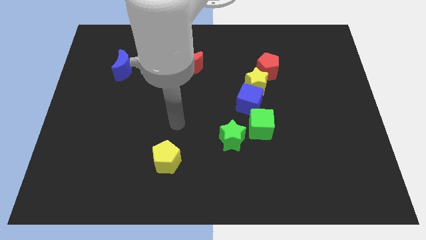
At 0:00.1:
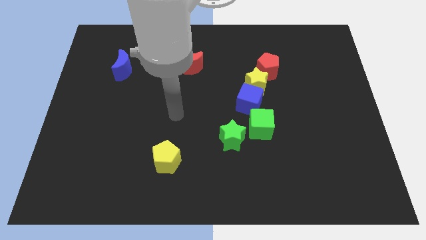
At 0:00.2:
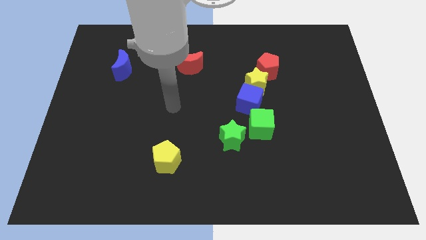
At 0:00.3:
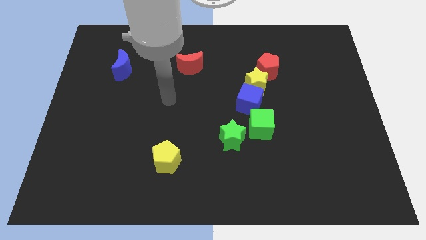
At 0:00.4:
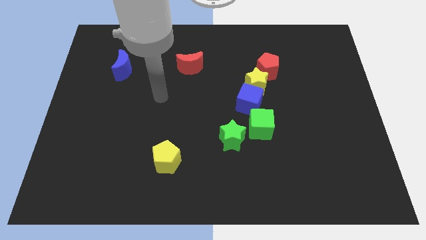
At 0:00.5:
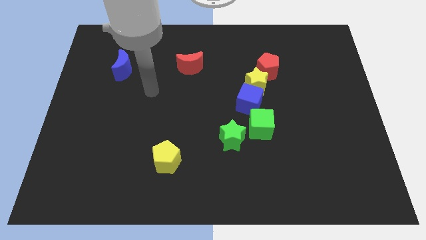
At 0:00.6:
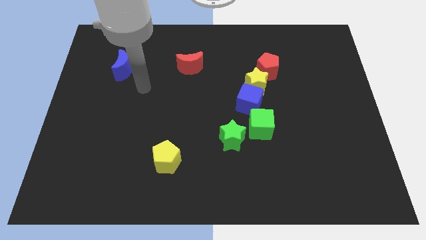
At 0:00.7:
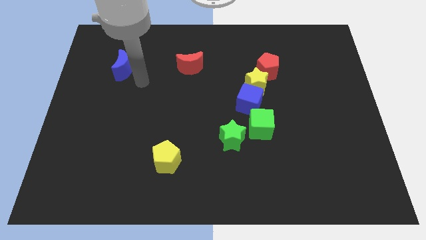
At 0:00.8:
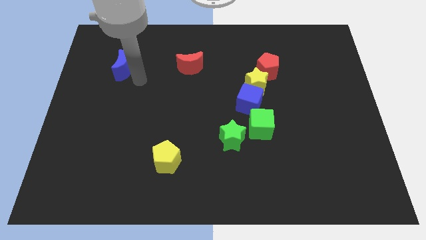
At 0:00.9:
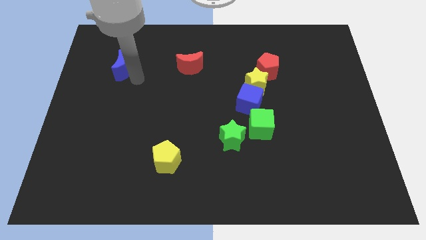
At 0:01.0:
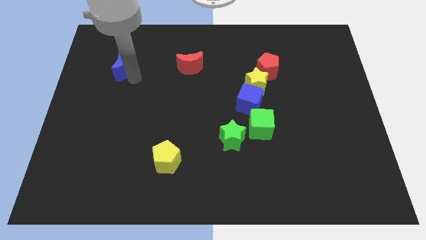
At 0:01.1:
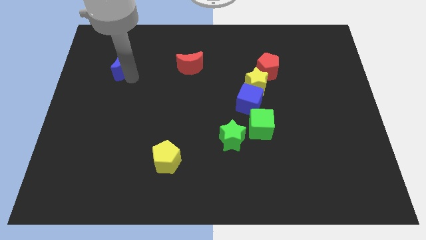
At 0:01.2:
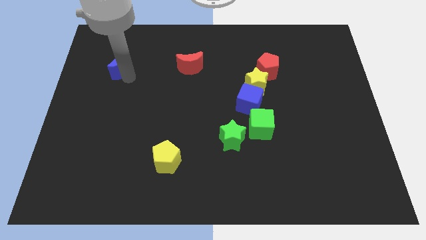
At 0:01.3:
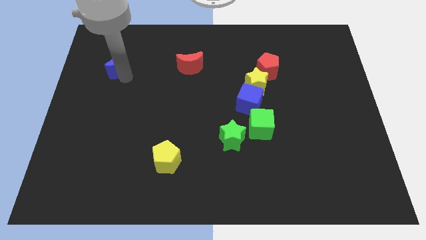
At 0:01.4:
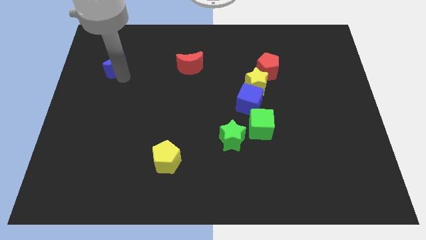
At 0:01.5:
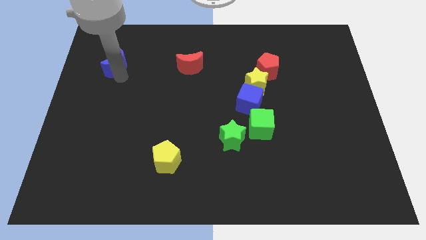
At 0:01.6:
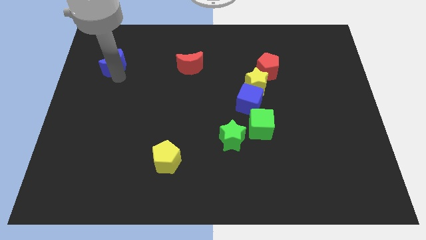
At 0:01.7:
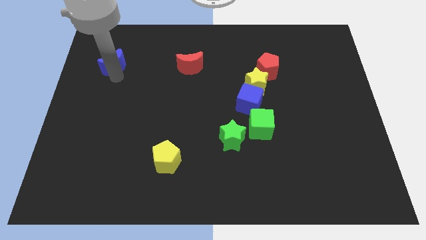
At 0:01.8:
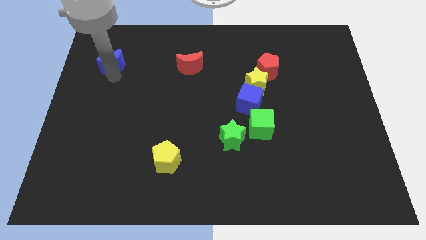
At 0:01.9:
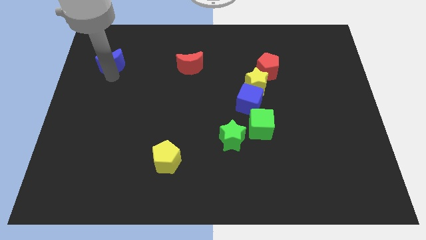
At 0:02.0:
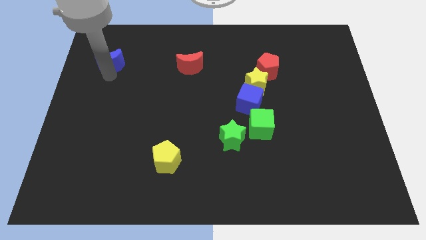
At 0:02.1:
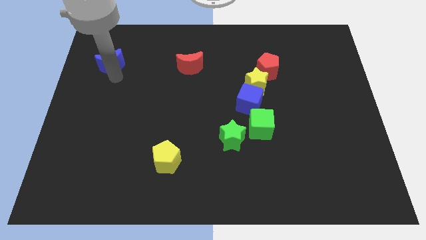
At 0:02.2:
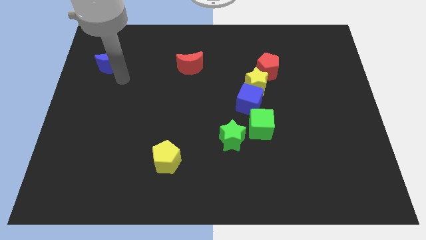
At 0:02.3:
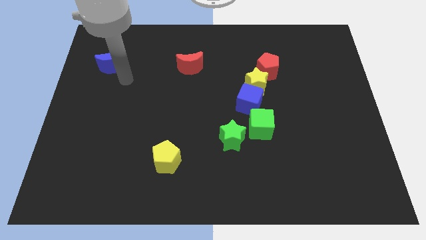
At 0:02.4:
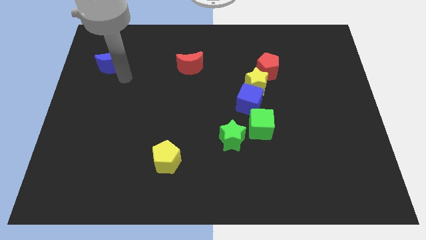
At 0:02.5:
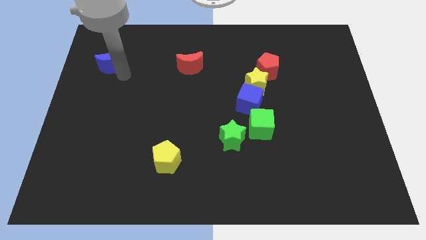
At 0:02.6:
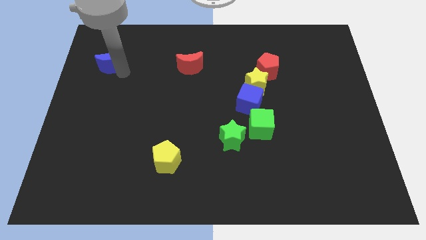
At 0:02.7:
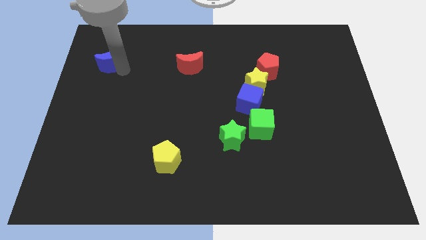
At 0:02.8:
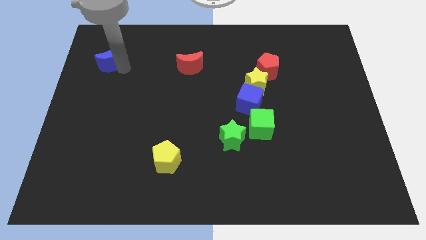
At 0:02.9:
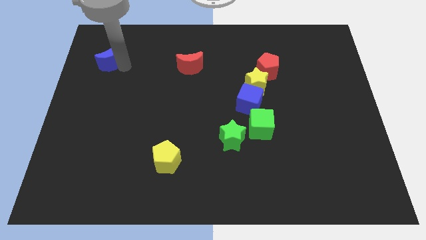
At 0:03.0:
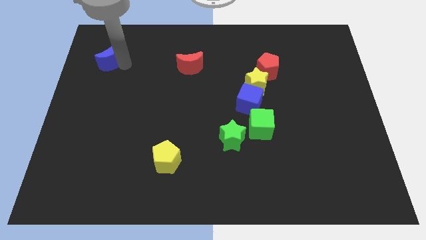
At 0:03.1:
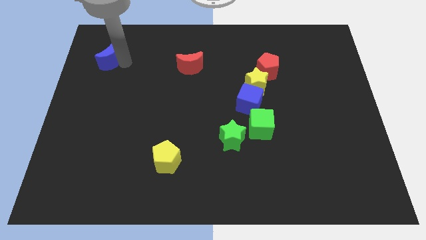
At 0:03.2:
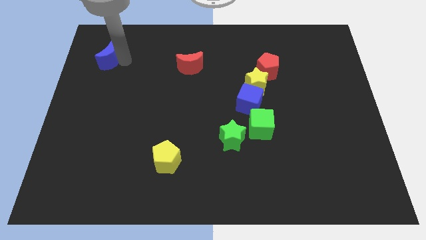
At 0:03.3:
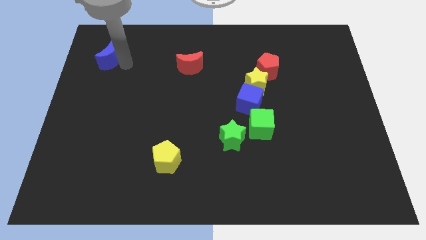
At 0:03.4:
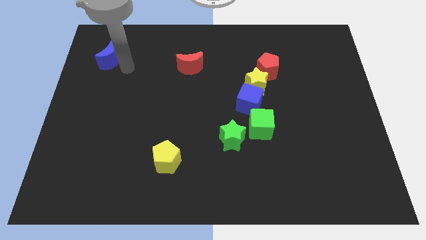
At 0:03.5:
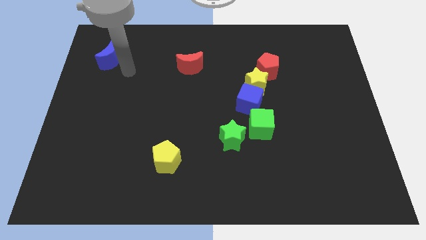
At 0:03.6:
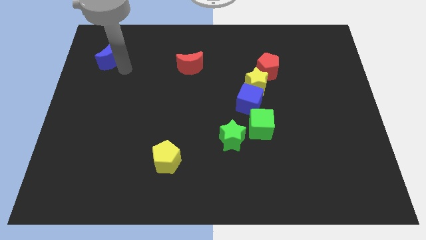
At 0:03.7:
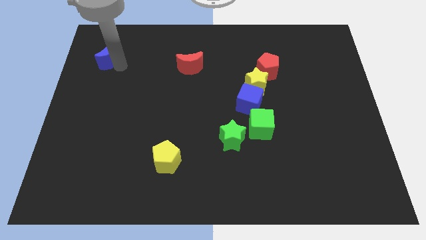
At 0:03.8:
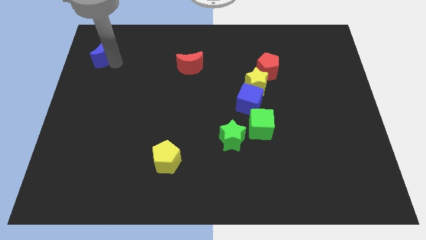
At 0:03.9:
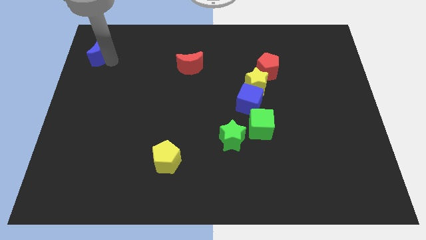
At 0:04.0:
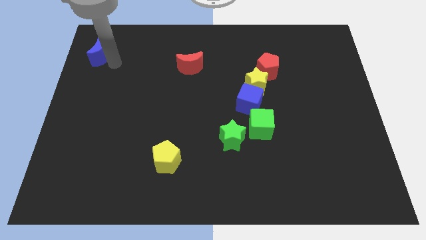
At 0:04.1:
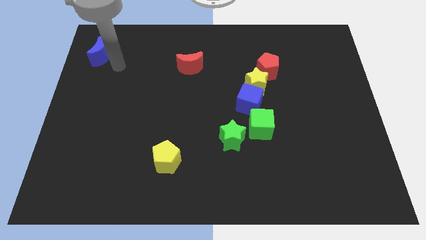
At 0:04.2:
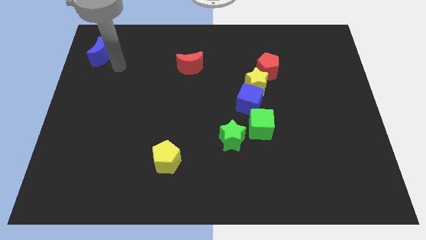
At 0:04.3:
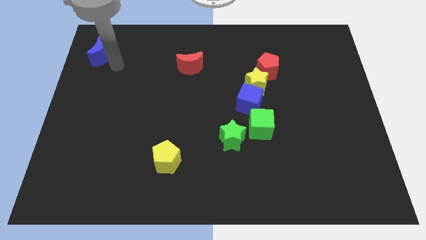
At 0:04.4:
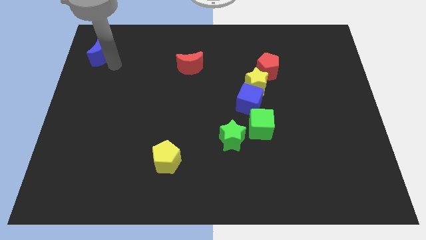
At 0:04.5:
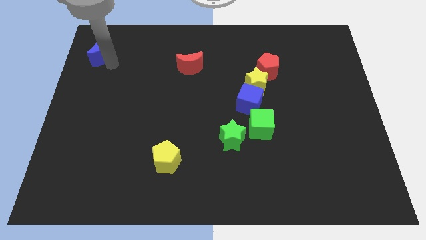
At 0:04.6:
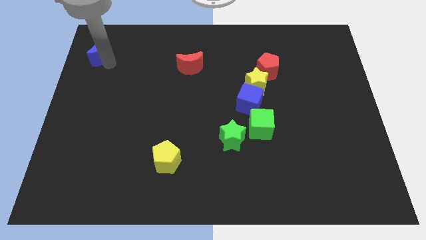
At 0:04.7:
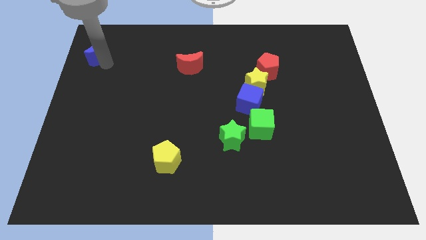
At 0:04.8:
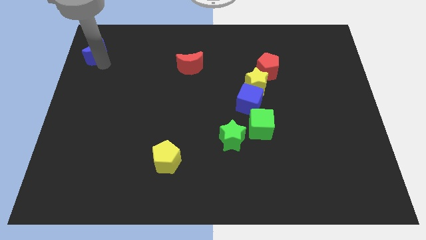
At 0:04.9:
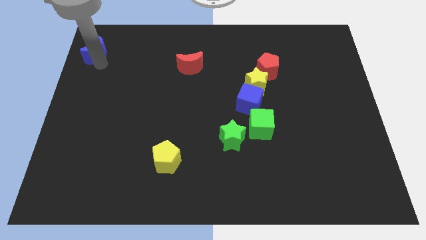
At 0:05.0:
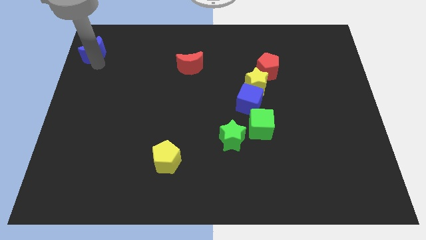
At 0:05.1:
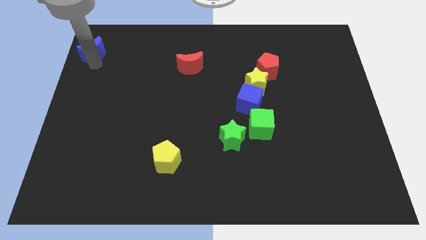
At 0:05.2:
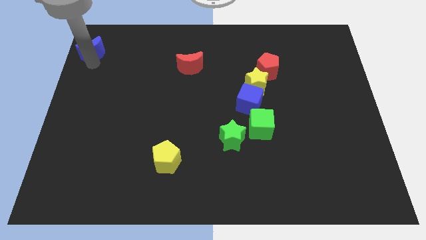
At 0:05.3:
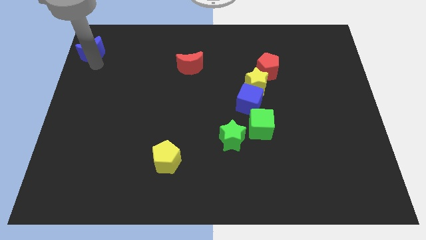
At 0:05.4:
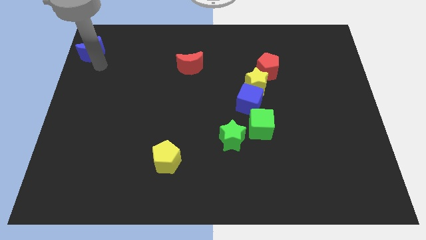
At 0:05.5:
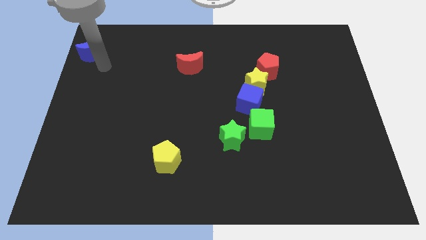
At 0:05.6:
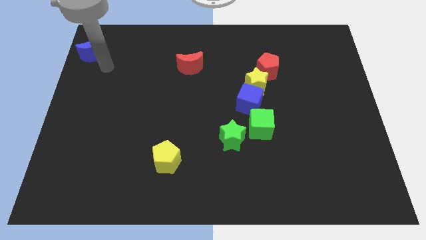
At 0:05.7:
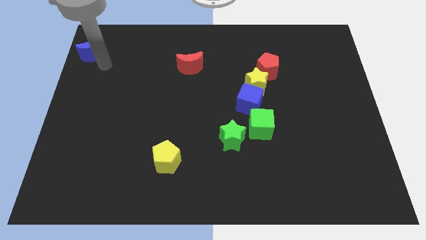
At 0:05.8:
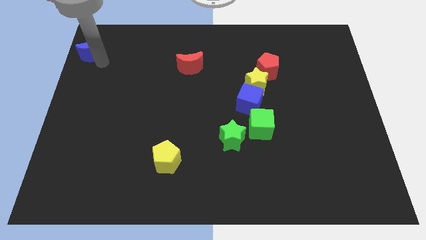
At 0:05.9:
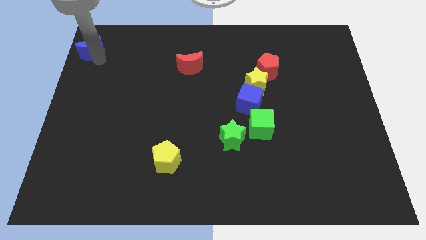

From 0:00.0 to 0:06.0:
slide the blue moon to the top left

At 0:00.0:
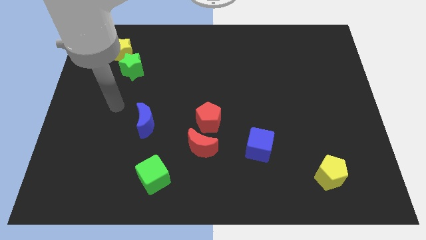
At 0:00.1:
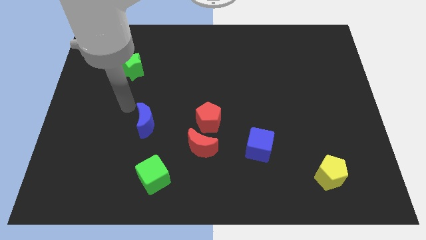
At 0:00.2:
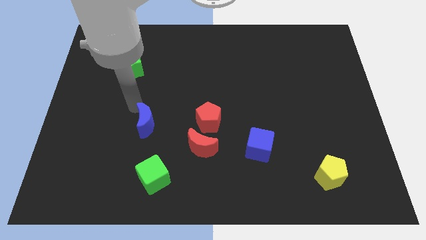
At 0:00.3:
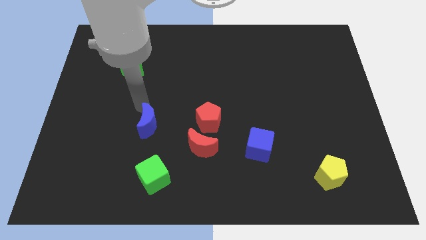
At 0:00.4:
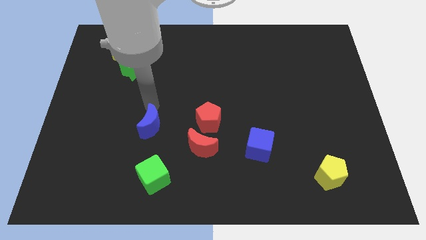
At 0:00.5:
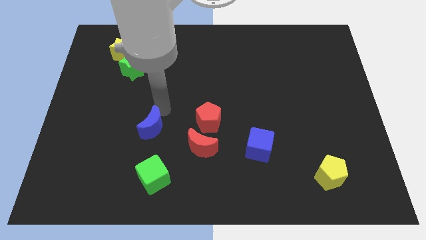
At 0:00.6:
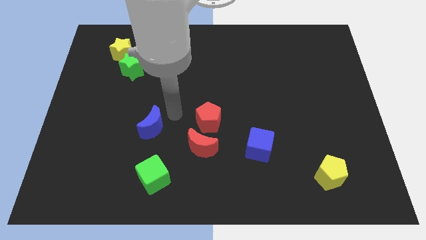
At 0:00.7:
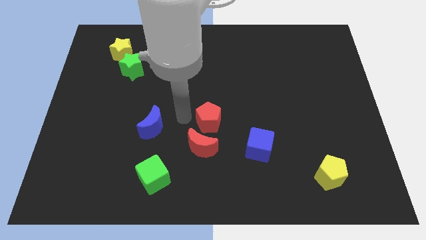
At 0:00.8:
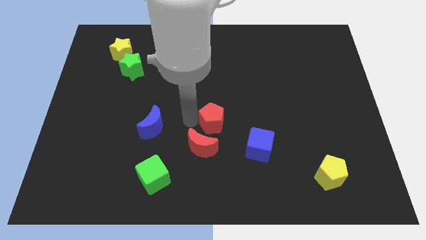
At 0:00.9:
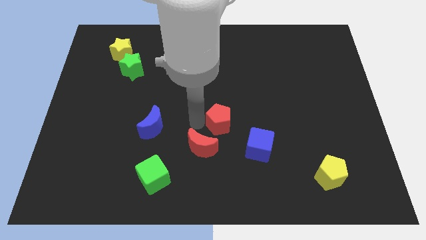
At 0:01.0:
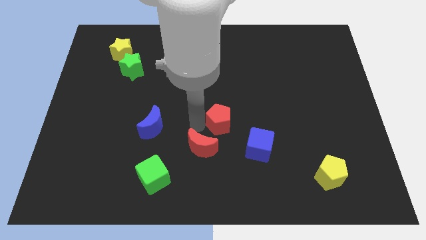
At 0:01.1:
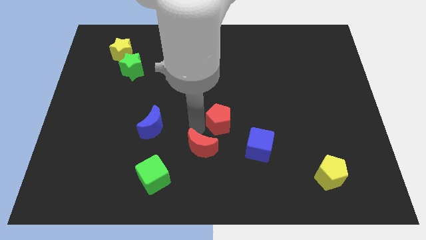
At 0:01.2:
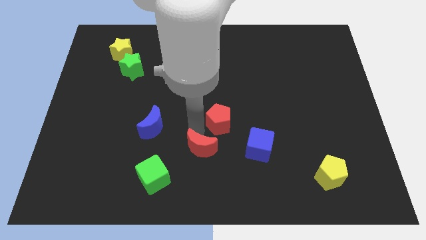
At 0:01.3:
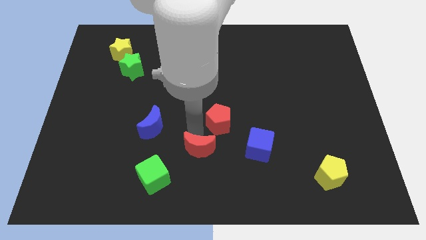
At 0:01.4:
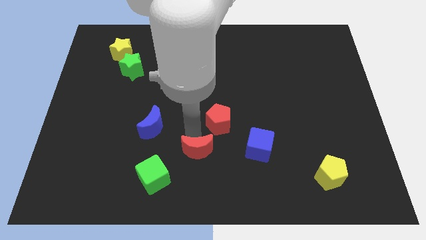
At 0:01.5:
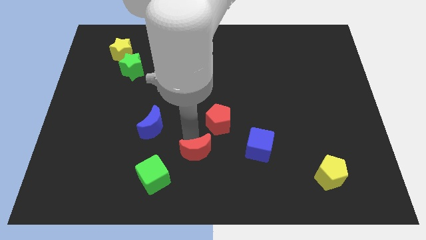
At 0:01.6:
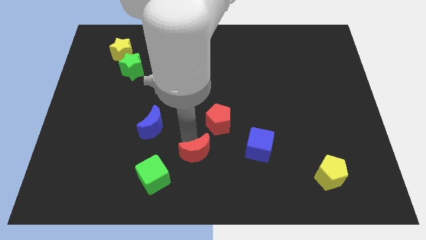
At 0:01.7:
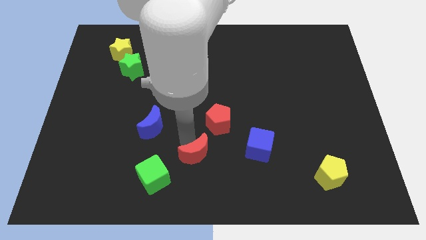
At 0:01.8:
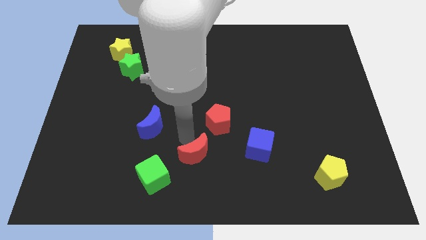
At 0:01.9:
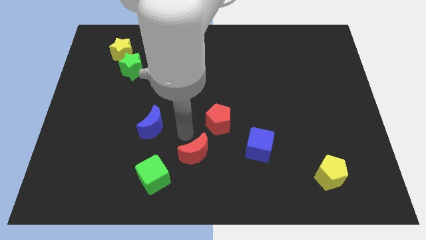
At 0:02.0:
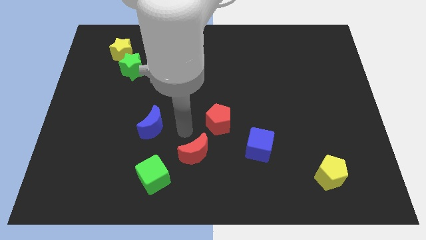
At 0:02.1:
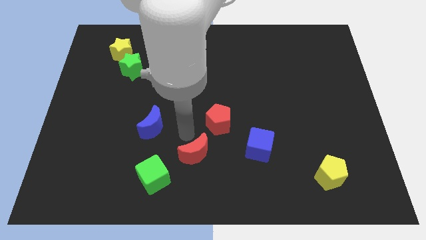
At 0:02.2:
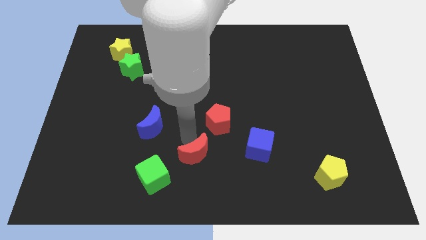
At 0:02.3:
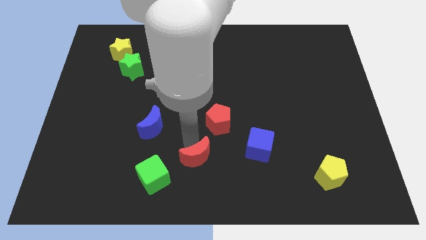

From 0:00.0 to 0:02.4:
put the red moon to the bottom
